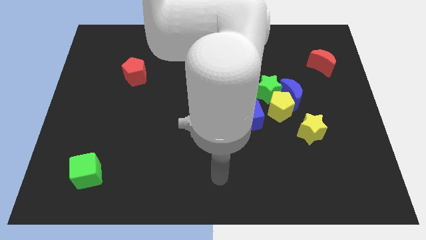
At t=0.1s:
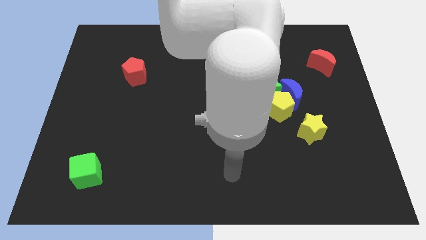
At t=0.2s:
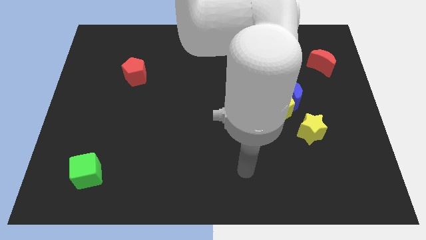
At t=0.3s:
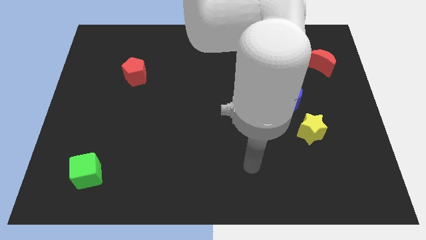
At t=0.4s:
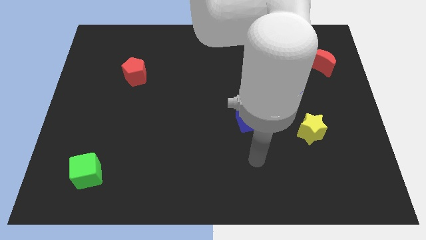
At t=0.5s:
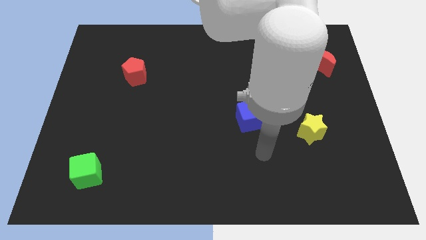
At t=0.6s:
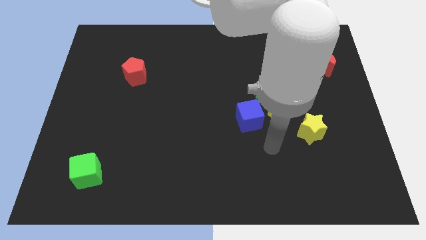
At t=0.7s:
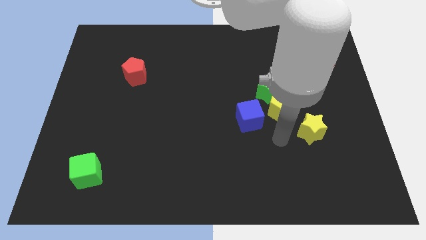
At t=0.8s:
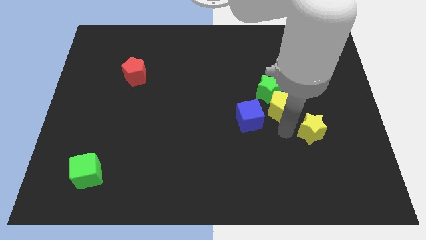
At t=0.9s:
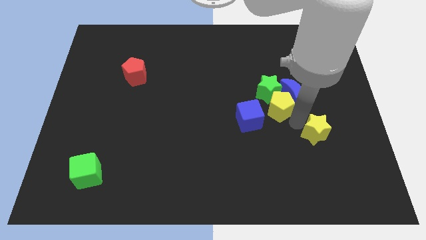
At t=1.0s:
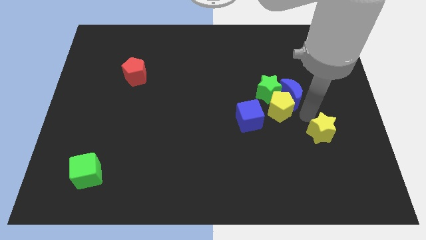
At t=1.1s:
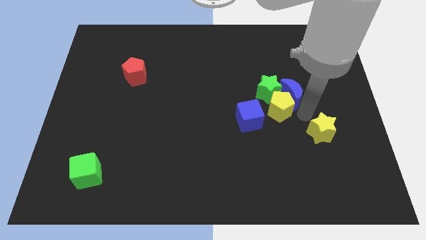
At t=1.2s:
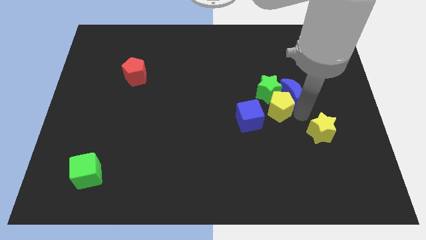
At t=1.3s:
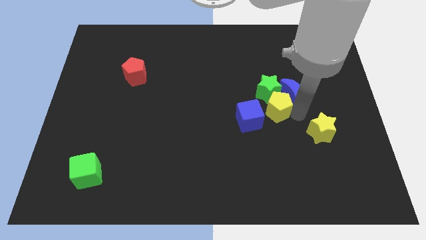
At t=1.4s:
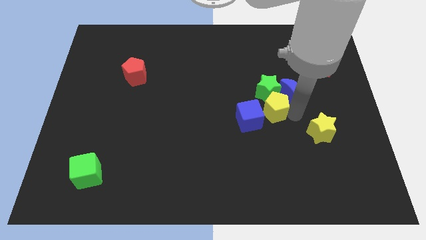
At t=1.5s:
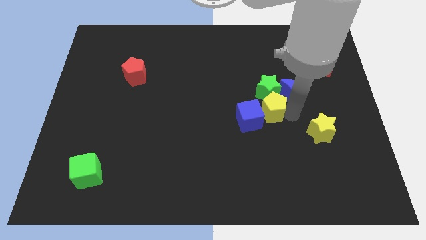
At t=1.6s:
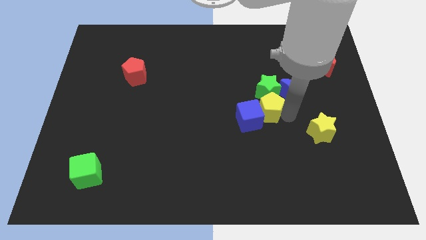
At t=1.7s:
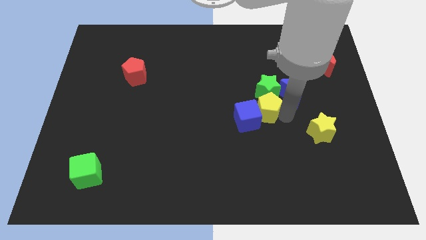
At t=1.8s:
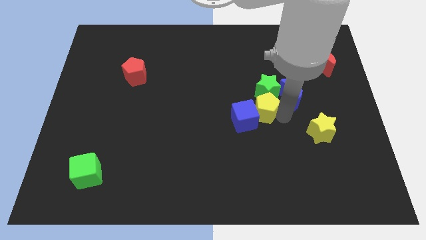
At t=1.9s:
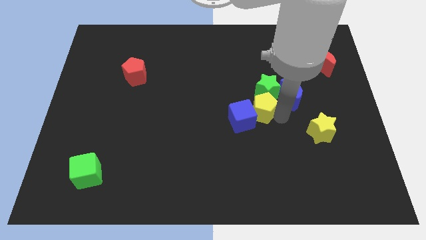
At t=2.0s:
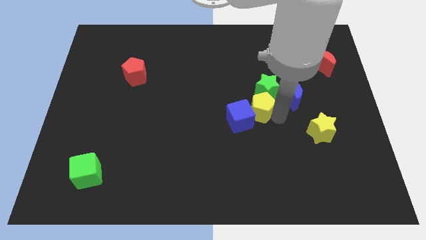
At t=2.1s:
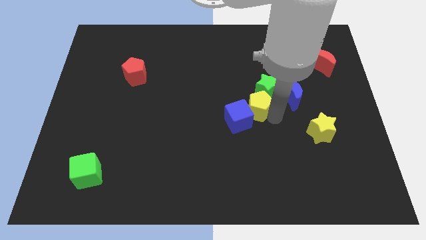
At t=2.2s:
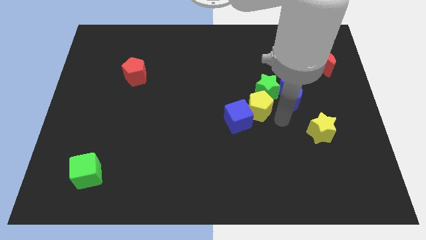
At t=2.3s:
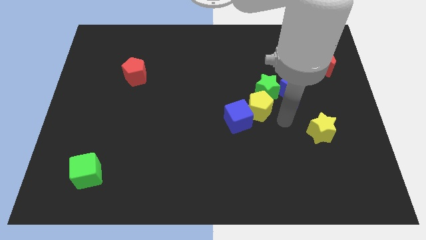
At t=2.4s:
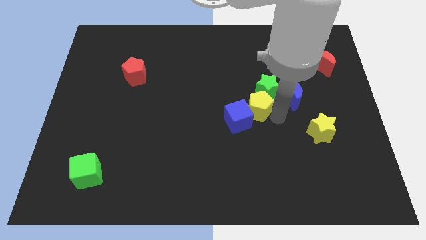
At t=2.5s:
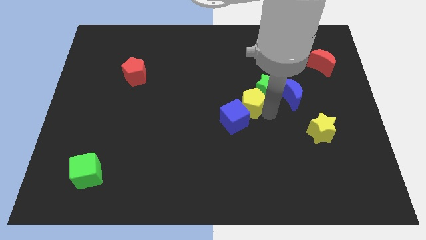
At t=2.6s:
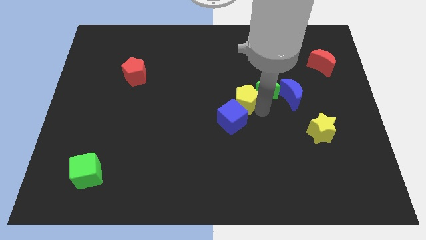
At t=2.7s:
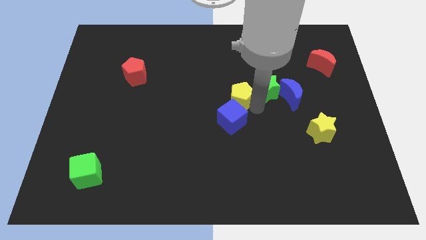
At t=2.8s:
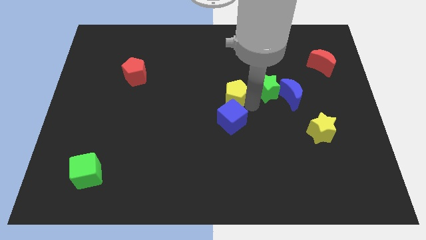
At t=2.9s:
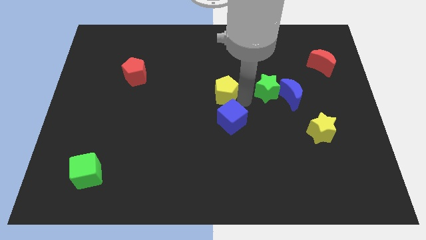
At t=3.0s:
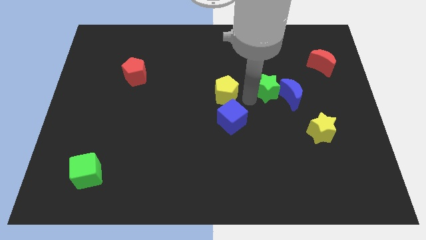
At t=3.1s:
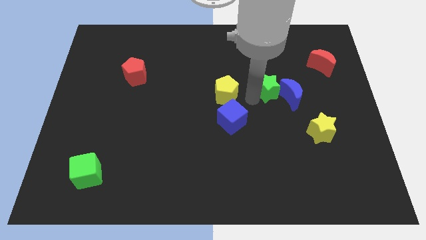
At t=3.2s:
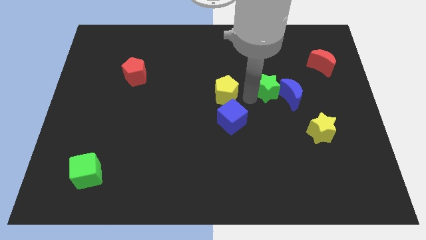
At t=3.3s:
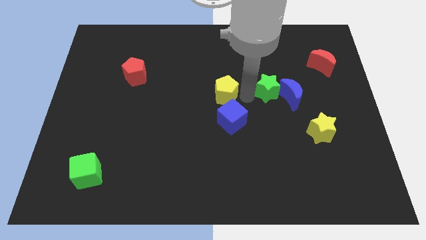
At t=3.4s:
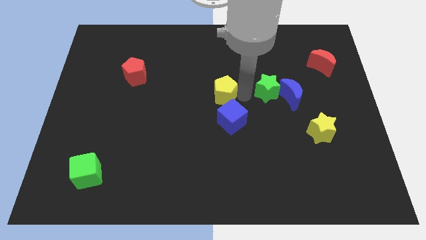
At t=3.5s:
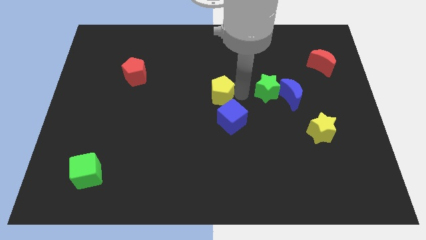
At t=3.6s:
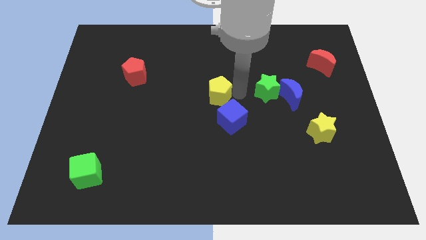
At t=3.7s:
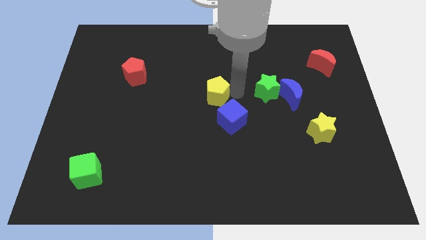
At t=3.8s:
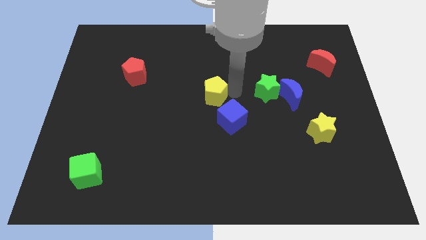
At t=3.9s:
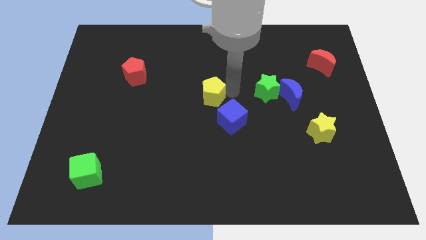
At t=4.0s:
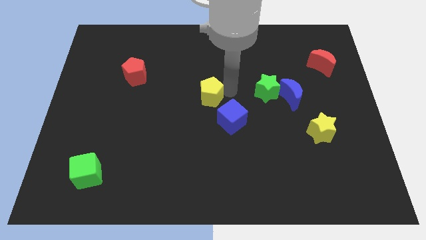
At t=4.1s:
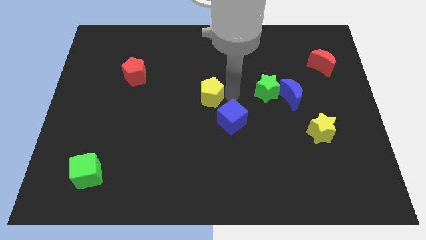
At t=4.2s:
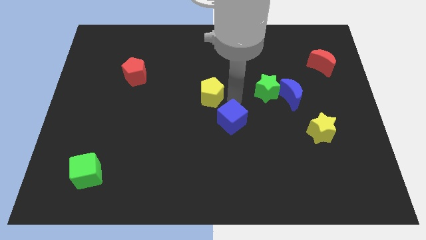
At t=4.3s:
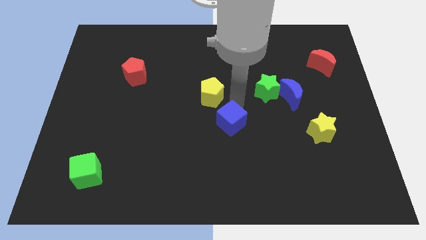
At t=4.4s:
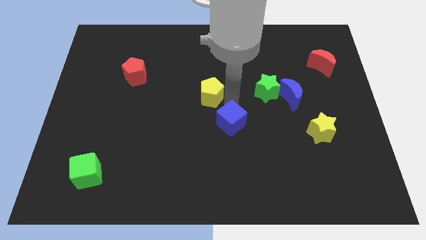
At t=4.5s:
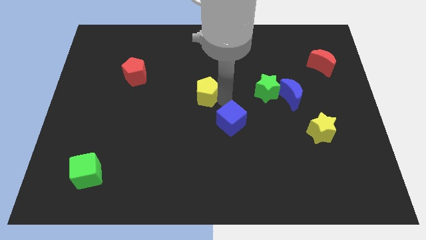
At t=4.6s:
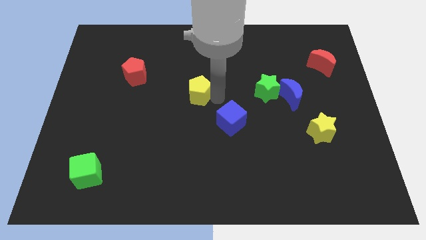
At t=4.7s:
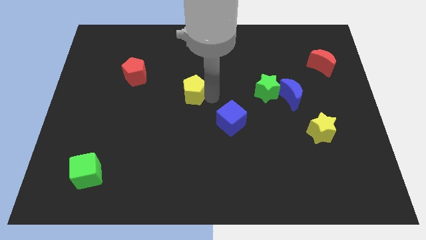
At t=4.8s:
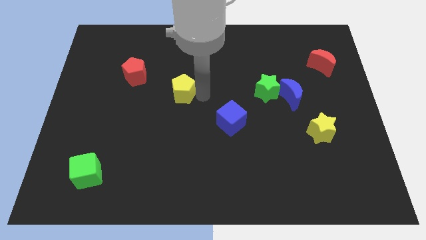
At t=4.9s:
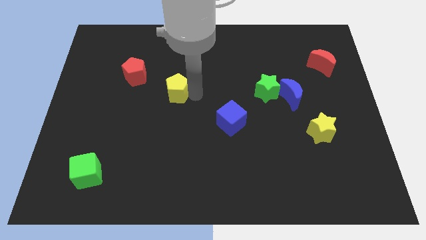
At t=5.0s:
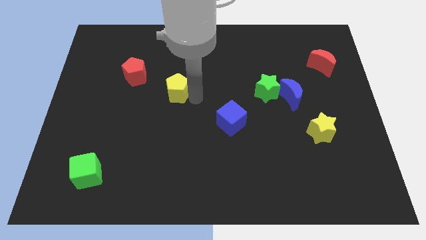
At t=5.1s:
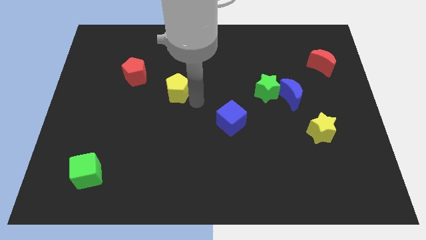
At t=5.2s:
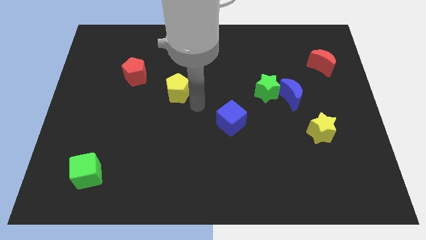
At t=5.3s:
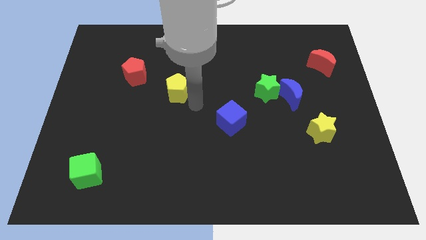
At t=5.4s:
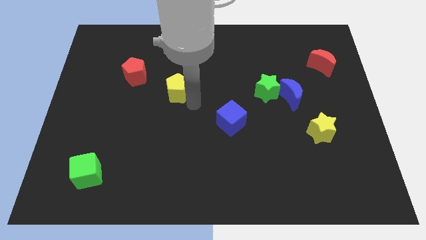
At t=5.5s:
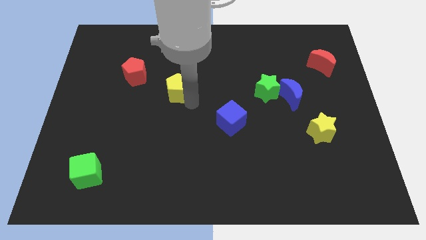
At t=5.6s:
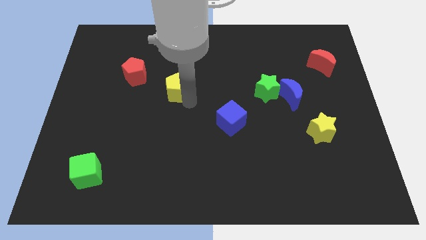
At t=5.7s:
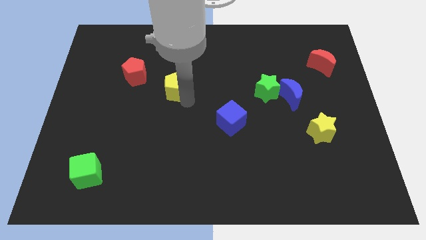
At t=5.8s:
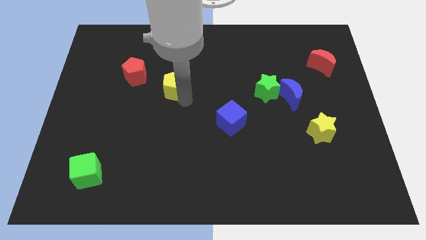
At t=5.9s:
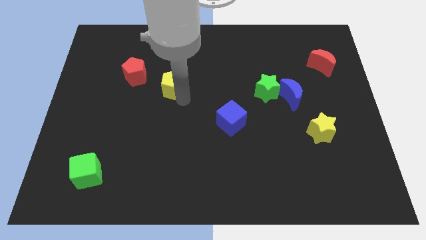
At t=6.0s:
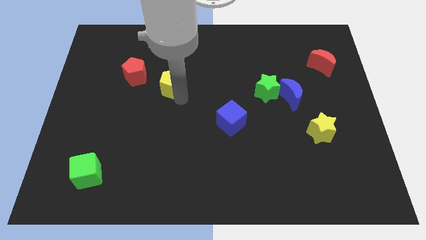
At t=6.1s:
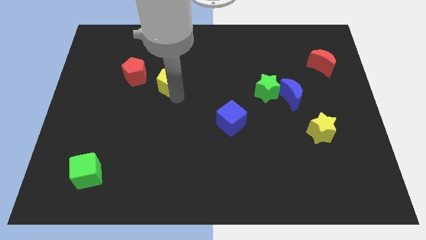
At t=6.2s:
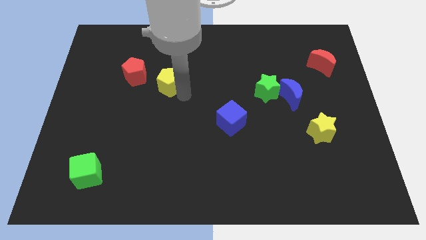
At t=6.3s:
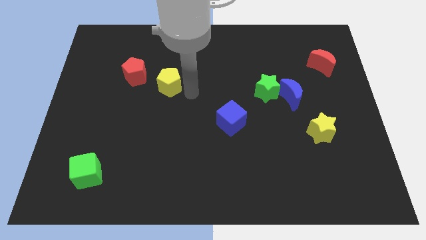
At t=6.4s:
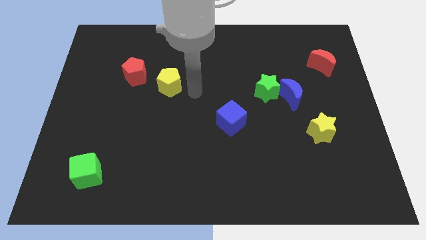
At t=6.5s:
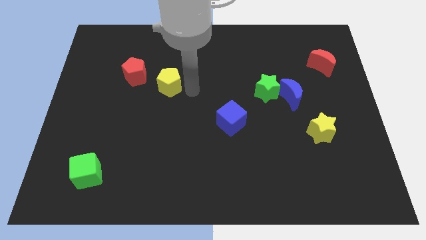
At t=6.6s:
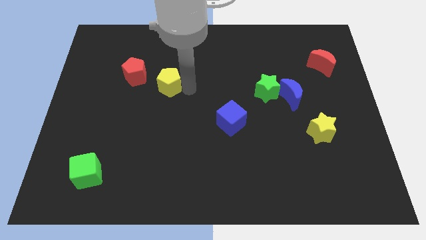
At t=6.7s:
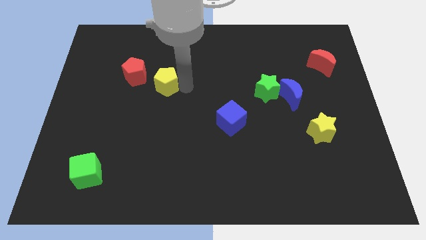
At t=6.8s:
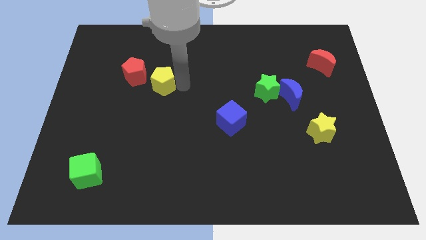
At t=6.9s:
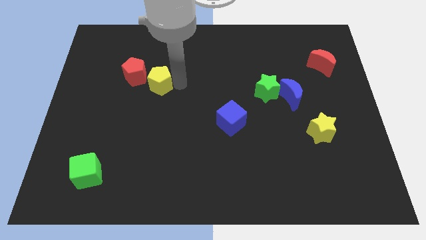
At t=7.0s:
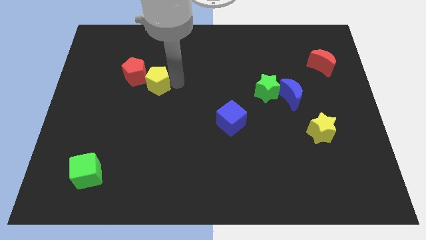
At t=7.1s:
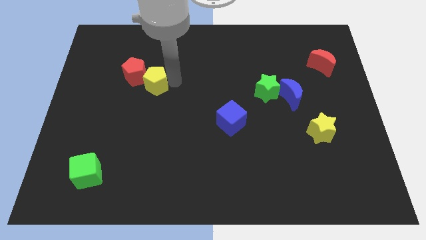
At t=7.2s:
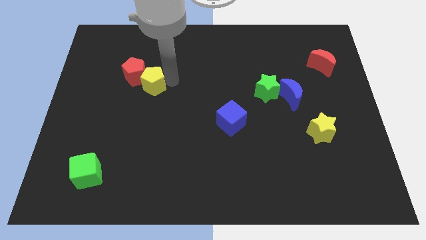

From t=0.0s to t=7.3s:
put the yellow pentagon next to the red pentagon
